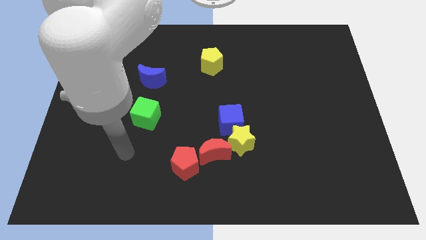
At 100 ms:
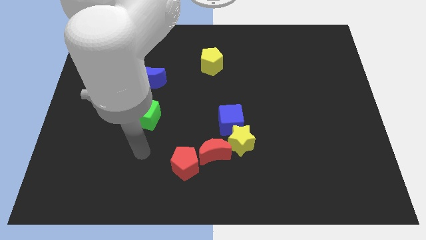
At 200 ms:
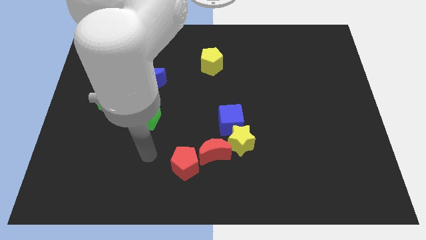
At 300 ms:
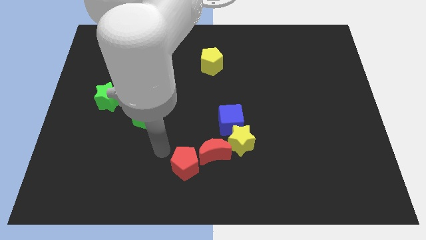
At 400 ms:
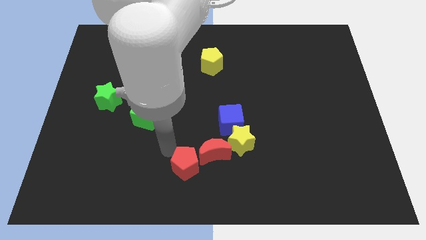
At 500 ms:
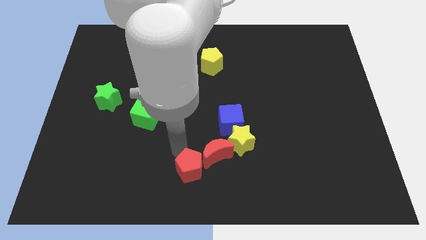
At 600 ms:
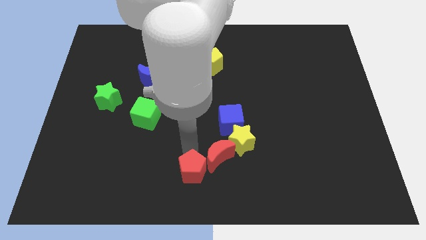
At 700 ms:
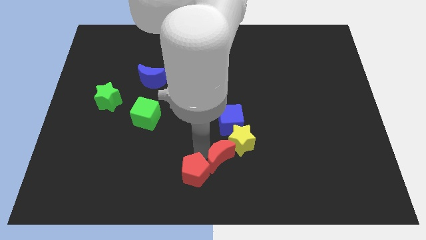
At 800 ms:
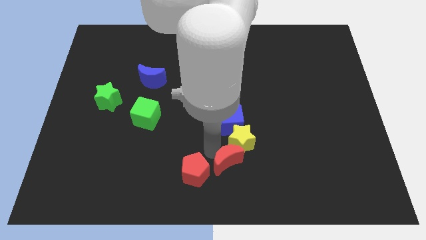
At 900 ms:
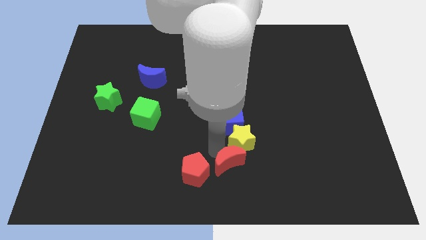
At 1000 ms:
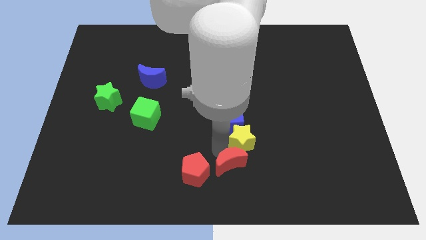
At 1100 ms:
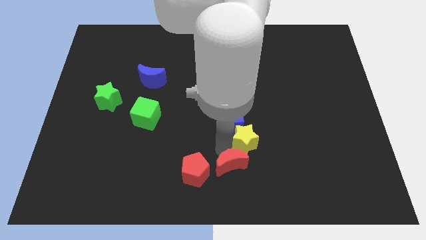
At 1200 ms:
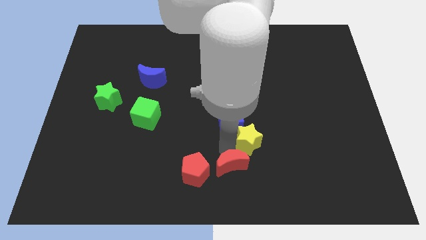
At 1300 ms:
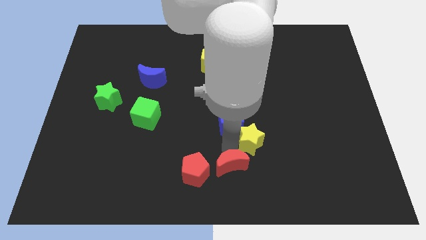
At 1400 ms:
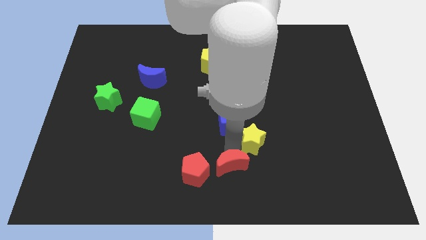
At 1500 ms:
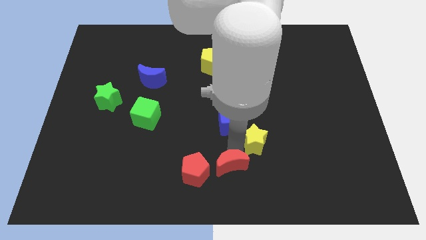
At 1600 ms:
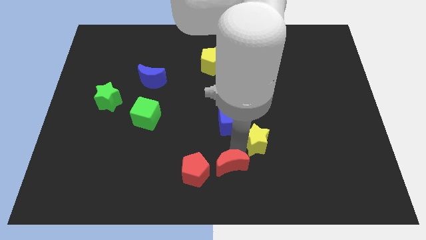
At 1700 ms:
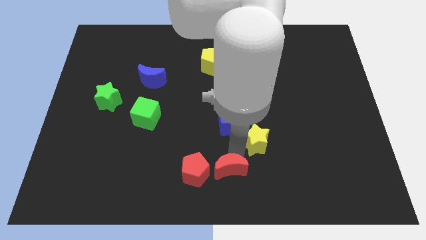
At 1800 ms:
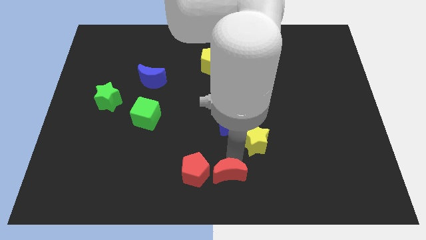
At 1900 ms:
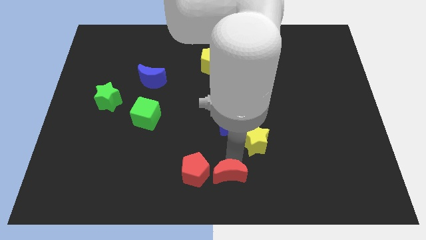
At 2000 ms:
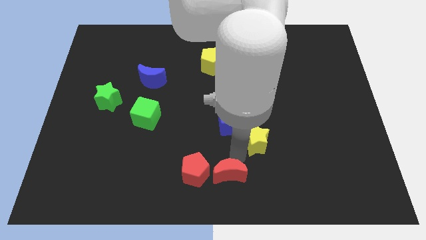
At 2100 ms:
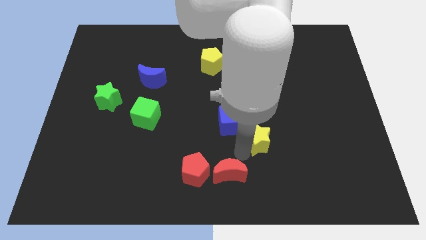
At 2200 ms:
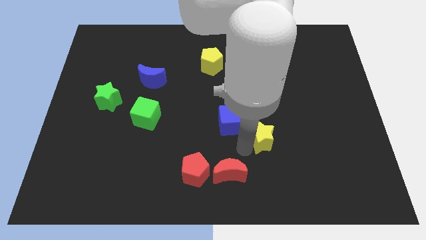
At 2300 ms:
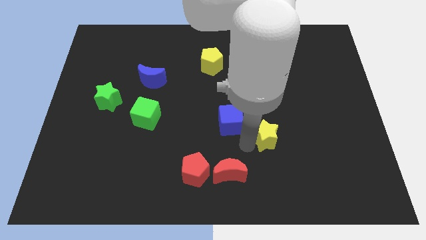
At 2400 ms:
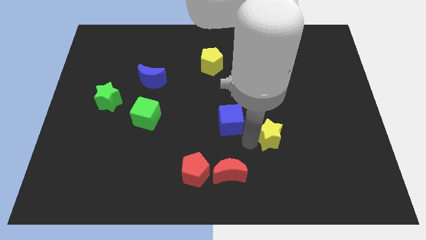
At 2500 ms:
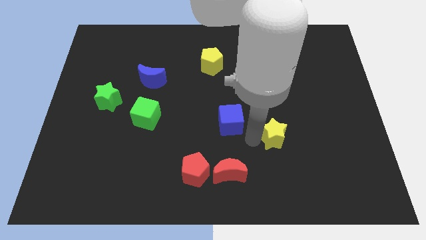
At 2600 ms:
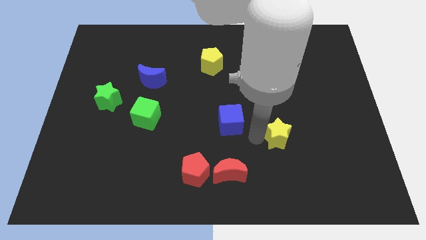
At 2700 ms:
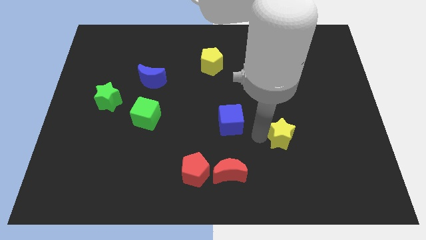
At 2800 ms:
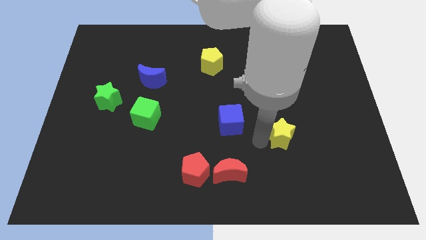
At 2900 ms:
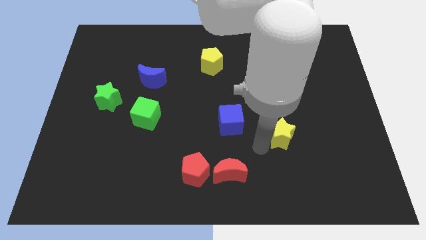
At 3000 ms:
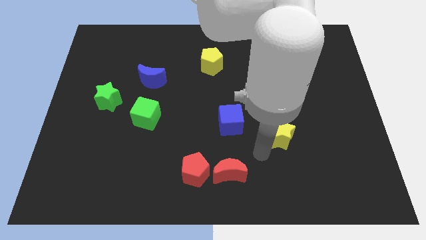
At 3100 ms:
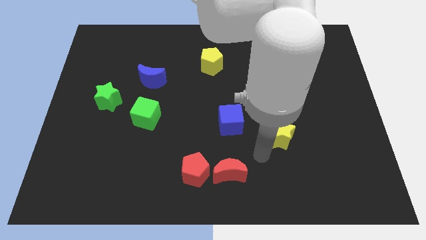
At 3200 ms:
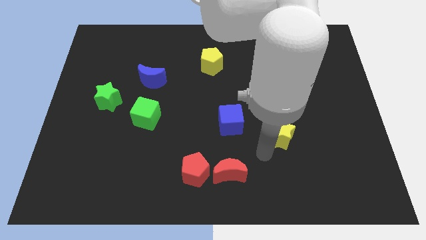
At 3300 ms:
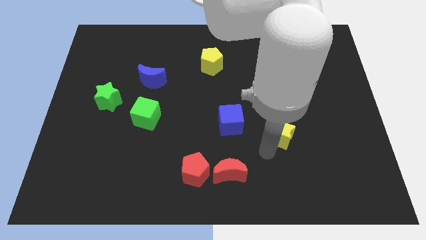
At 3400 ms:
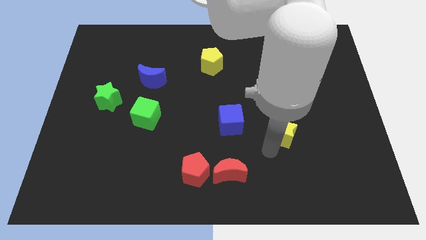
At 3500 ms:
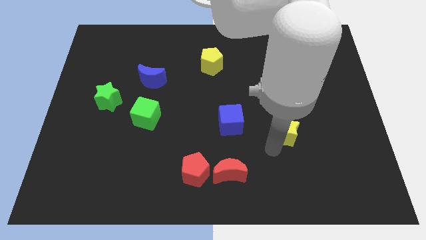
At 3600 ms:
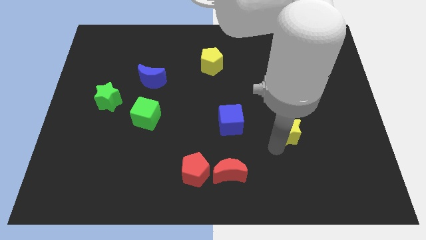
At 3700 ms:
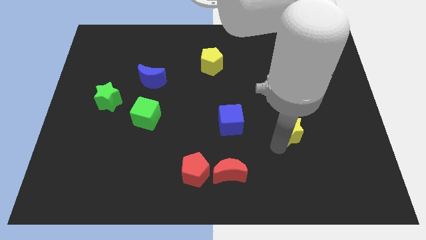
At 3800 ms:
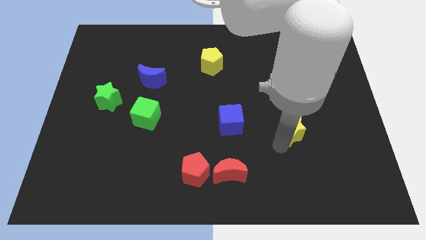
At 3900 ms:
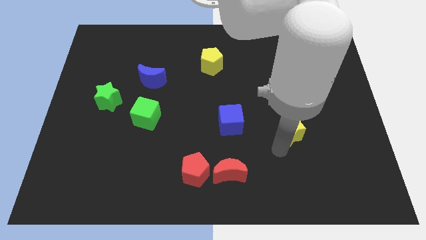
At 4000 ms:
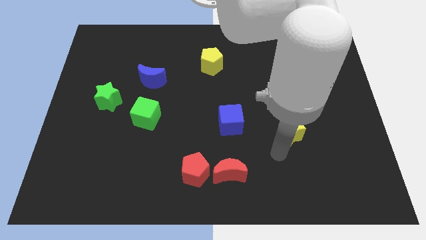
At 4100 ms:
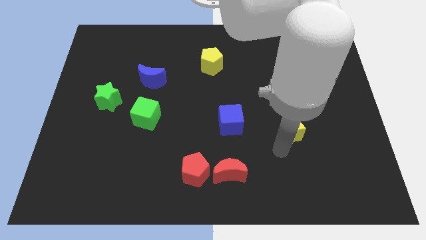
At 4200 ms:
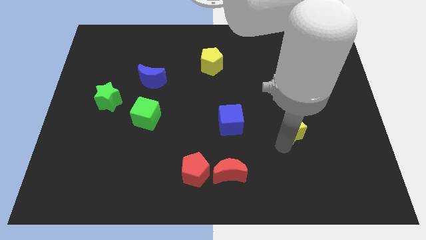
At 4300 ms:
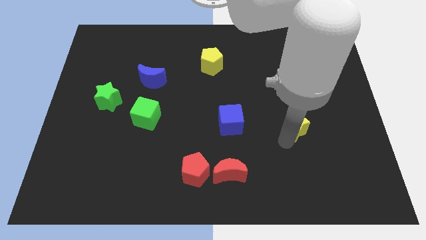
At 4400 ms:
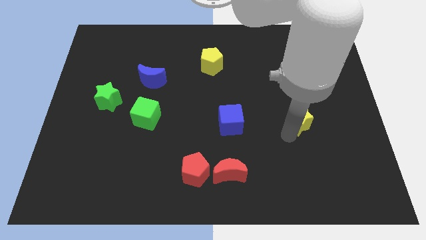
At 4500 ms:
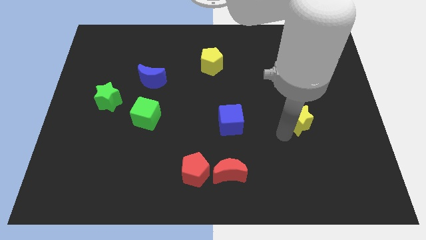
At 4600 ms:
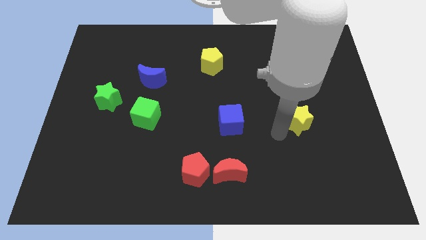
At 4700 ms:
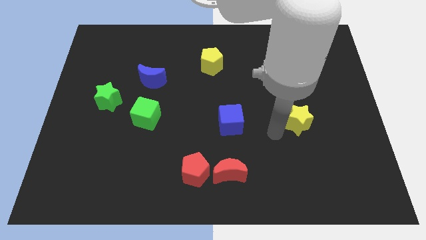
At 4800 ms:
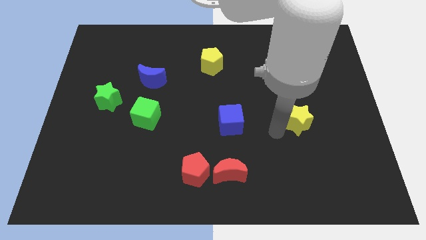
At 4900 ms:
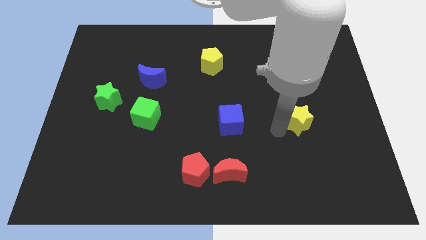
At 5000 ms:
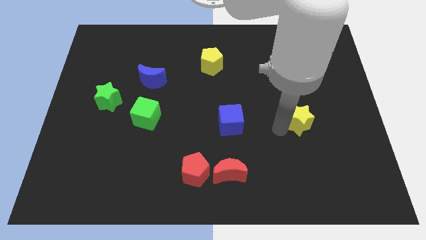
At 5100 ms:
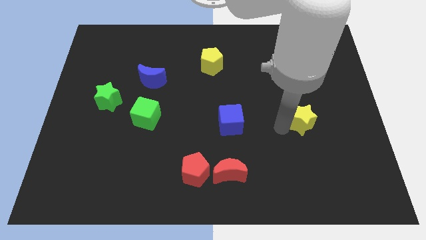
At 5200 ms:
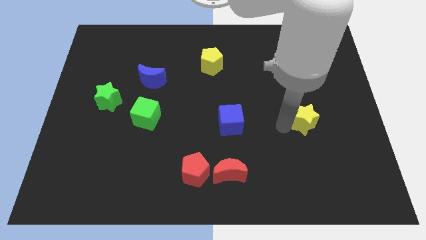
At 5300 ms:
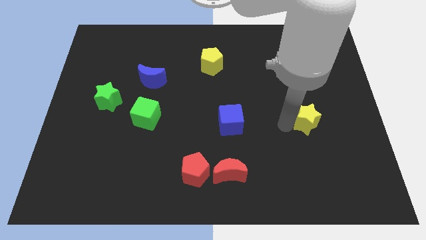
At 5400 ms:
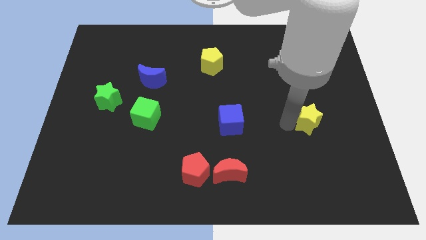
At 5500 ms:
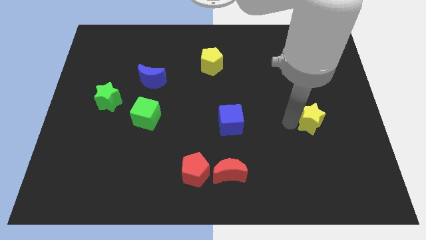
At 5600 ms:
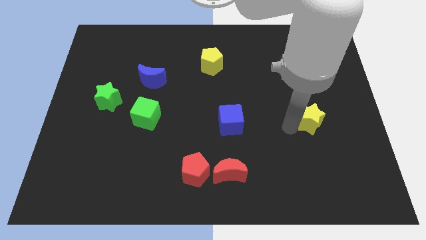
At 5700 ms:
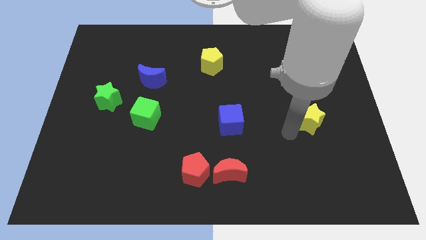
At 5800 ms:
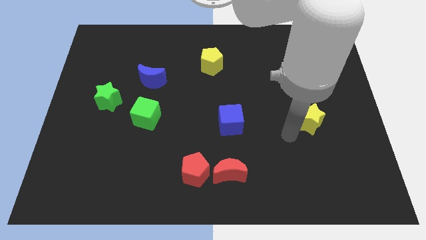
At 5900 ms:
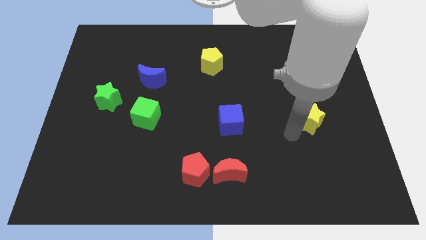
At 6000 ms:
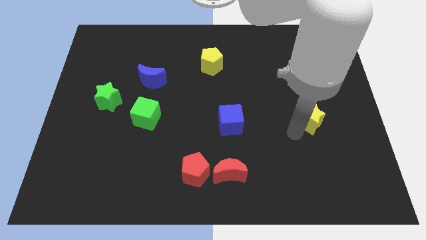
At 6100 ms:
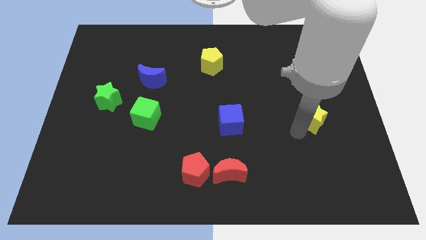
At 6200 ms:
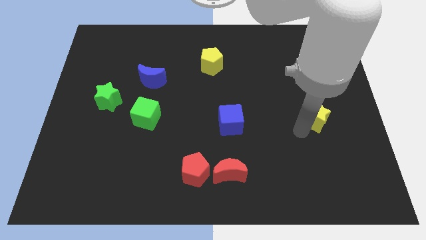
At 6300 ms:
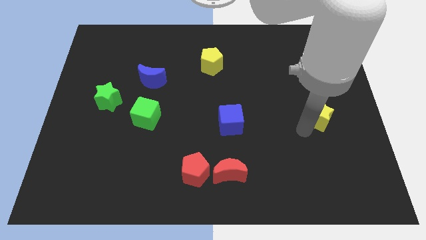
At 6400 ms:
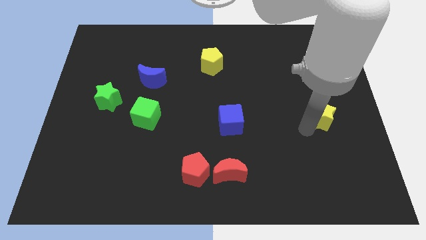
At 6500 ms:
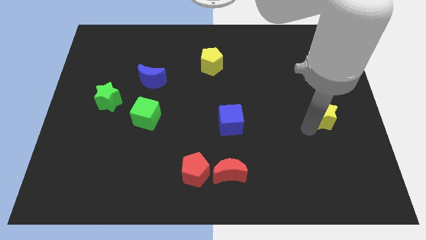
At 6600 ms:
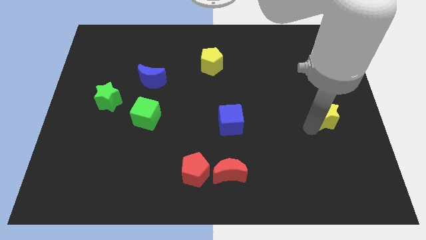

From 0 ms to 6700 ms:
move the yellow star to the right side of the board

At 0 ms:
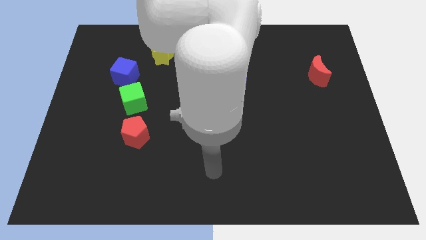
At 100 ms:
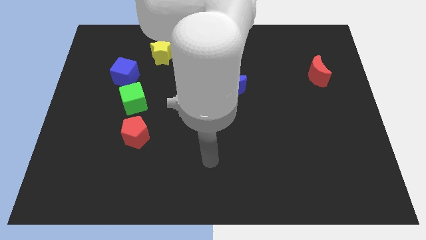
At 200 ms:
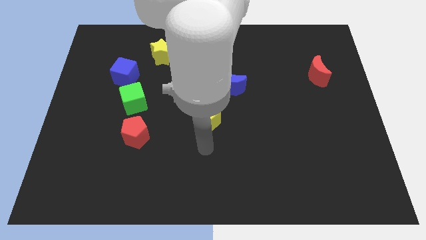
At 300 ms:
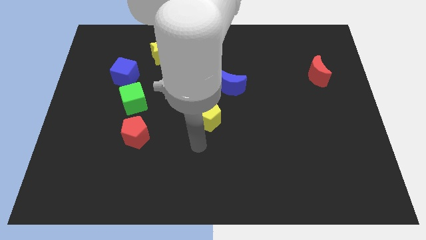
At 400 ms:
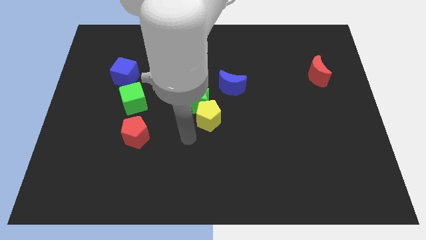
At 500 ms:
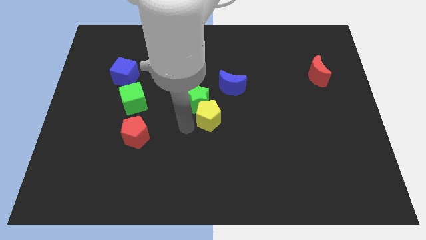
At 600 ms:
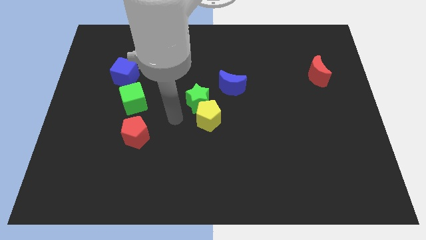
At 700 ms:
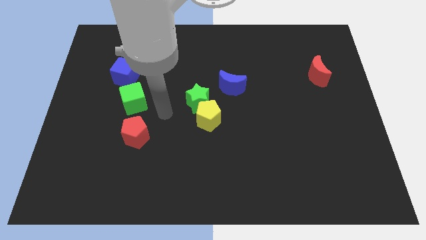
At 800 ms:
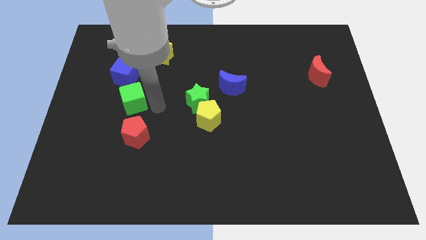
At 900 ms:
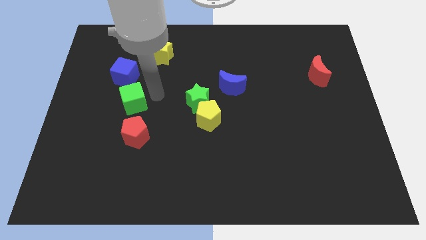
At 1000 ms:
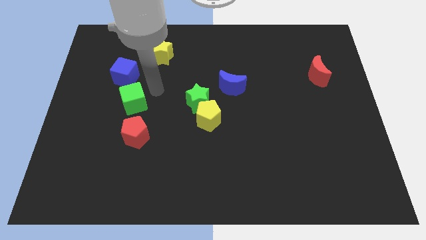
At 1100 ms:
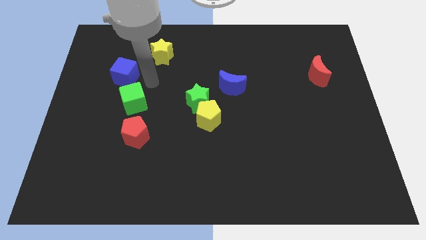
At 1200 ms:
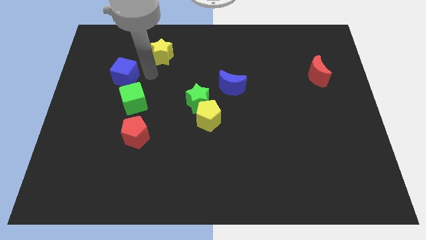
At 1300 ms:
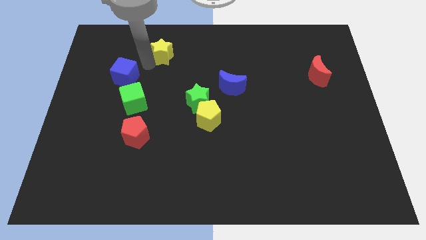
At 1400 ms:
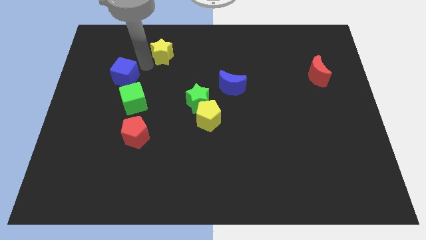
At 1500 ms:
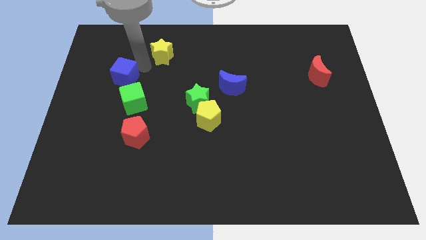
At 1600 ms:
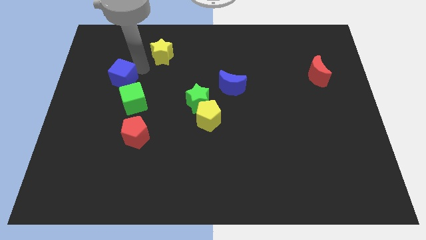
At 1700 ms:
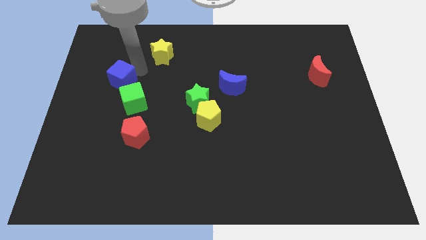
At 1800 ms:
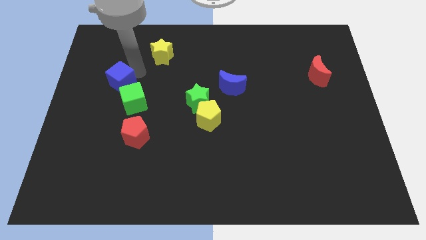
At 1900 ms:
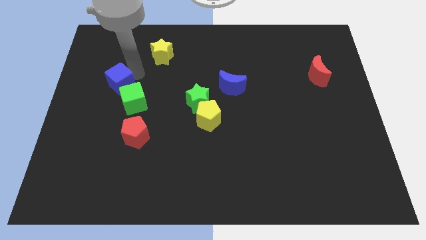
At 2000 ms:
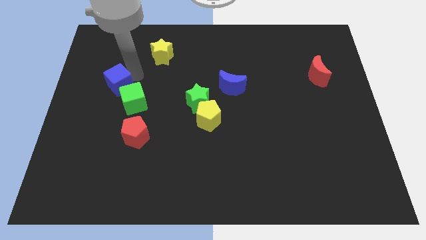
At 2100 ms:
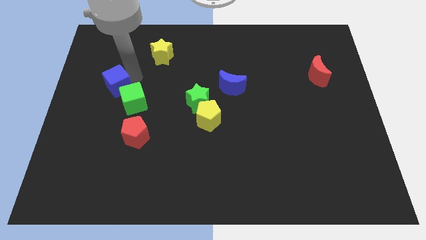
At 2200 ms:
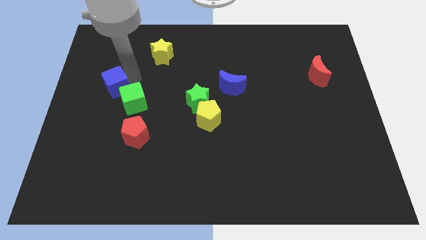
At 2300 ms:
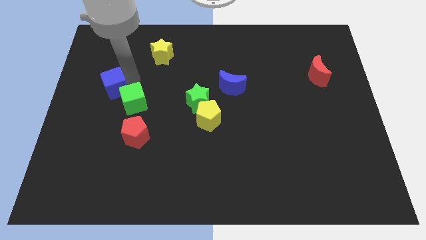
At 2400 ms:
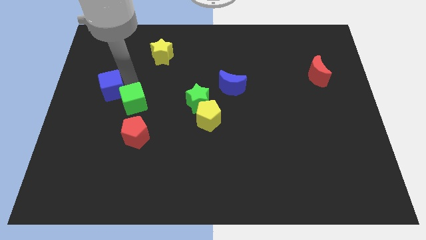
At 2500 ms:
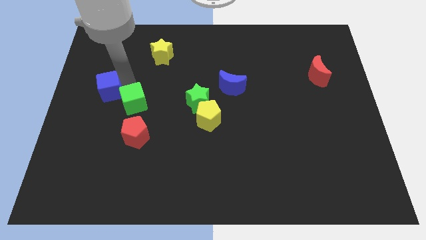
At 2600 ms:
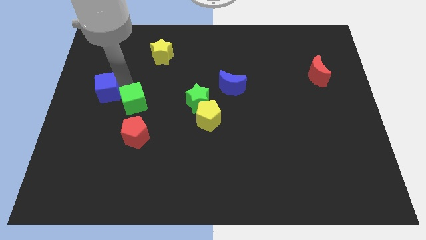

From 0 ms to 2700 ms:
push the blue cube to the left side
